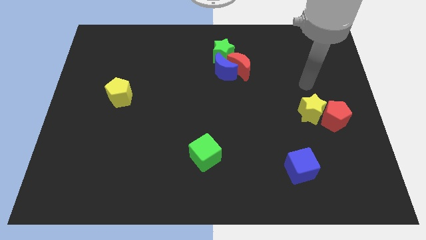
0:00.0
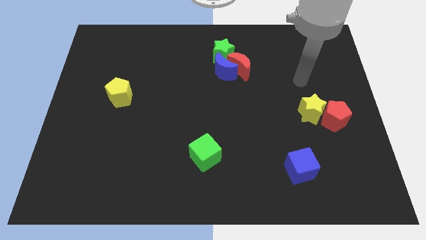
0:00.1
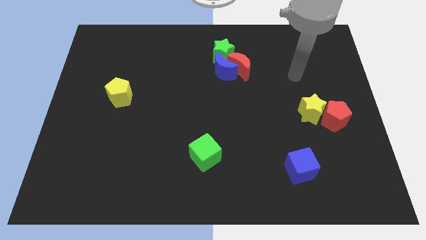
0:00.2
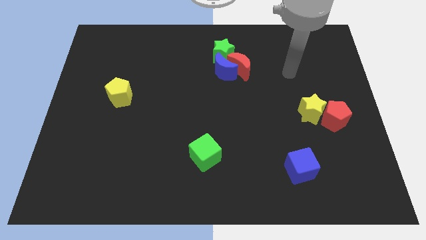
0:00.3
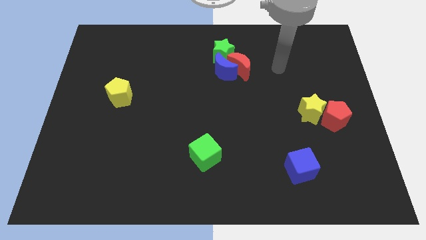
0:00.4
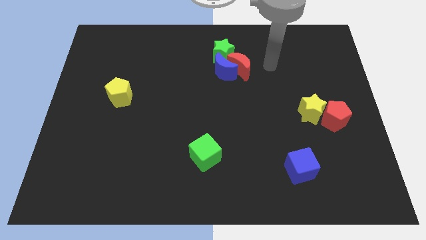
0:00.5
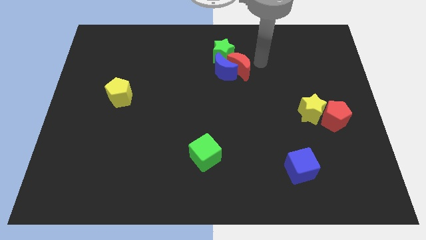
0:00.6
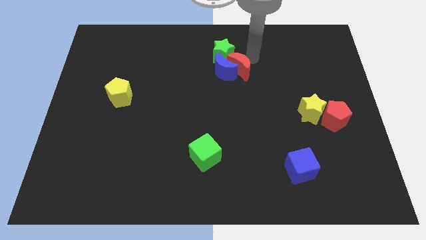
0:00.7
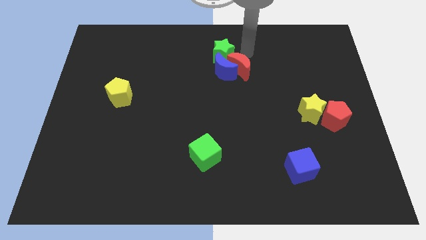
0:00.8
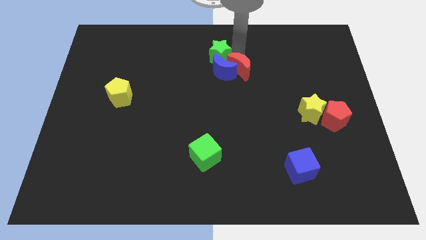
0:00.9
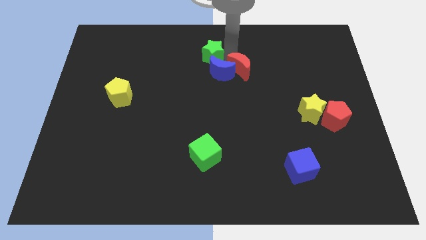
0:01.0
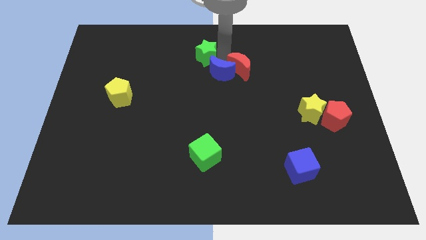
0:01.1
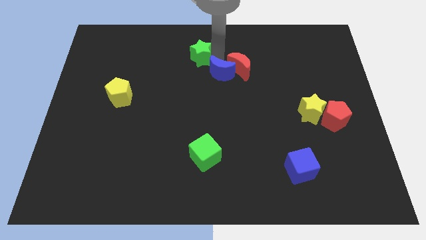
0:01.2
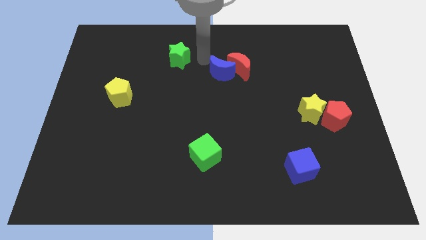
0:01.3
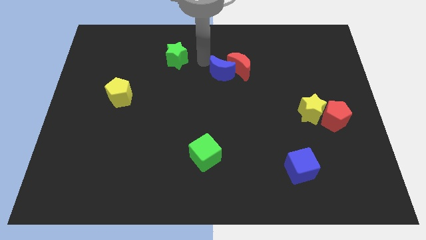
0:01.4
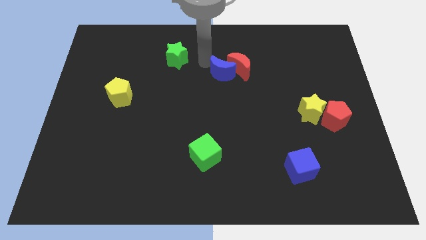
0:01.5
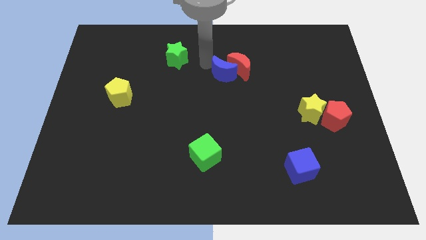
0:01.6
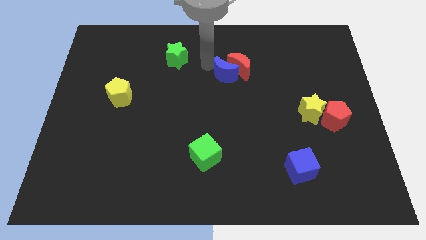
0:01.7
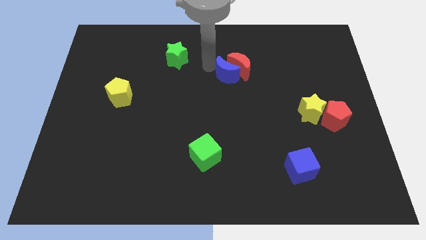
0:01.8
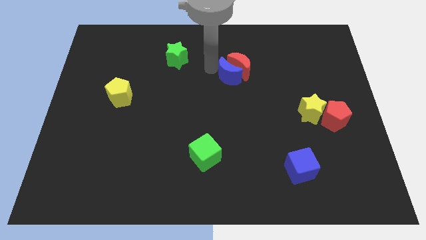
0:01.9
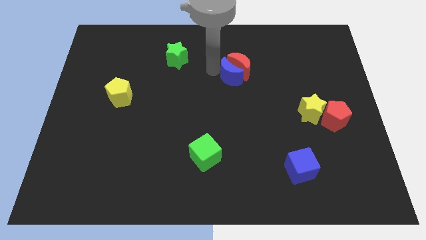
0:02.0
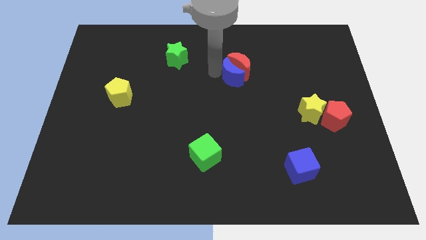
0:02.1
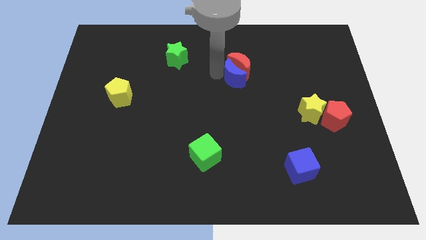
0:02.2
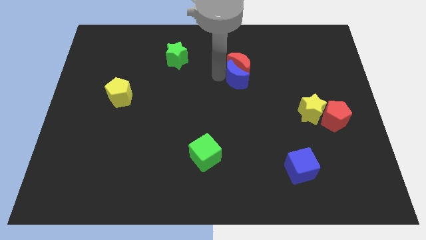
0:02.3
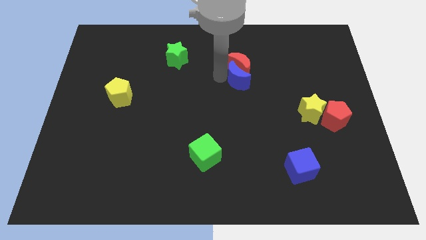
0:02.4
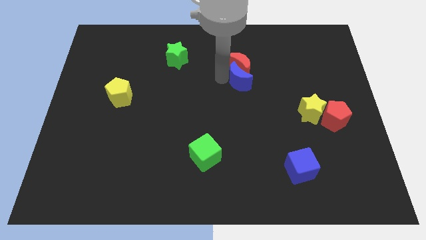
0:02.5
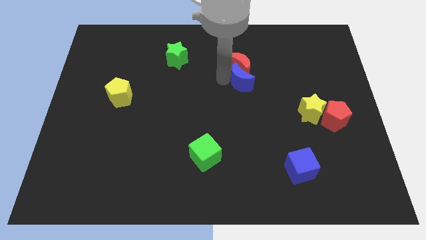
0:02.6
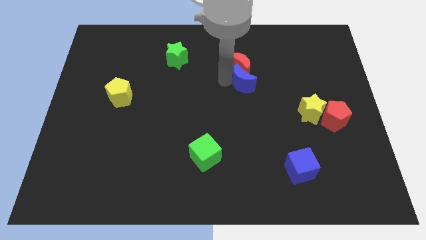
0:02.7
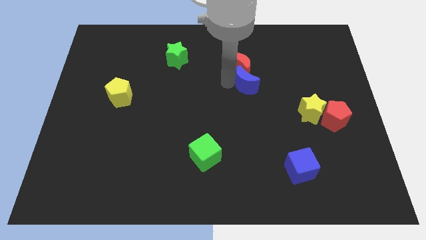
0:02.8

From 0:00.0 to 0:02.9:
slightly slide the blue moon diagonally downwards and right

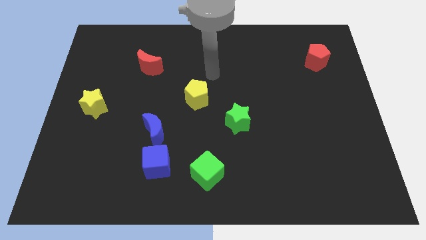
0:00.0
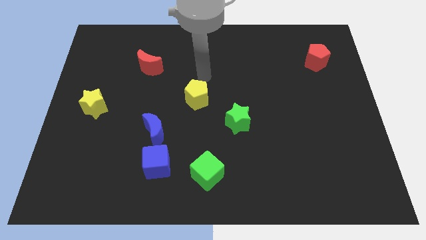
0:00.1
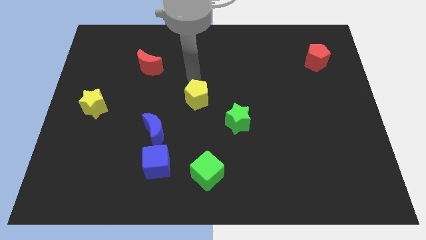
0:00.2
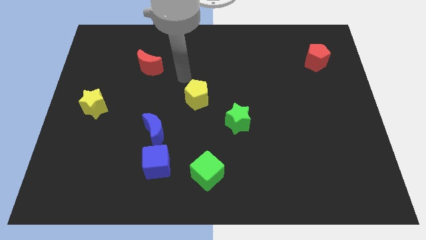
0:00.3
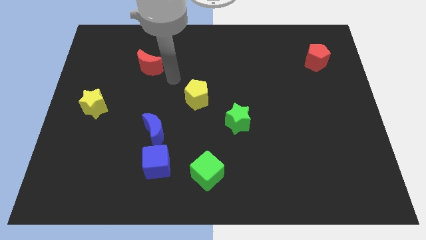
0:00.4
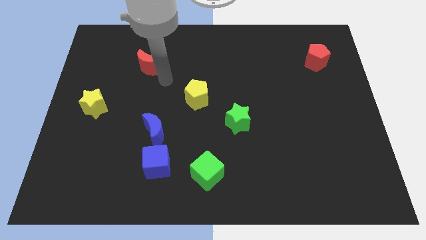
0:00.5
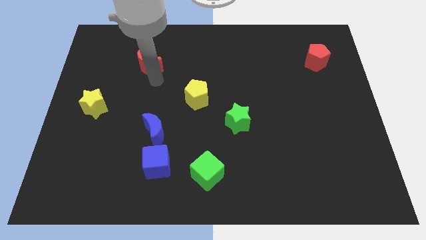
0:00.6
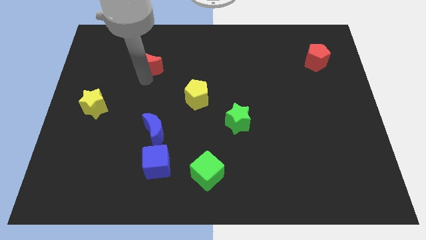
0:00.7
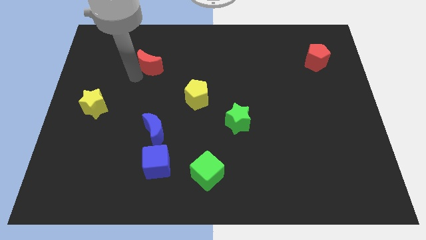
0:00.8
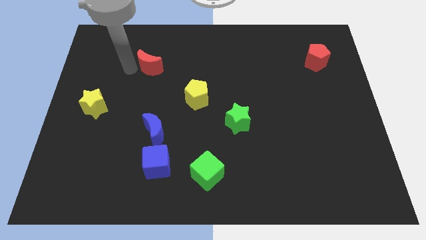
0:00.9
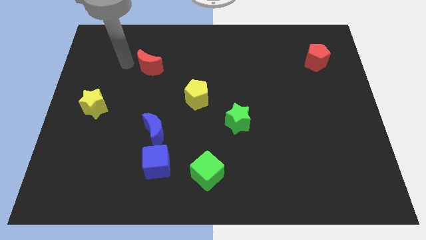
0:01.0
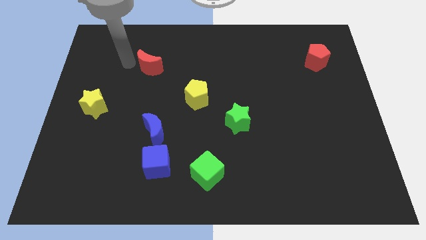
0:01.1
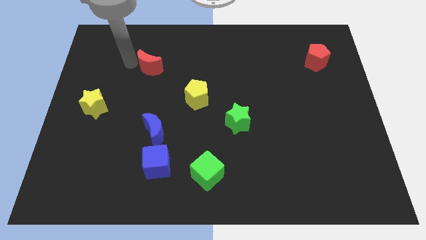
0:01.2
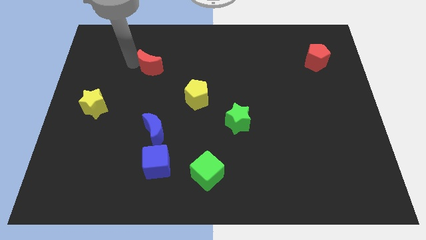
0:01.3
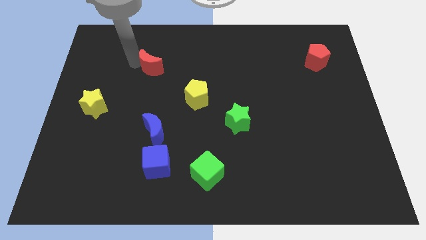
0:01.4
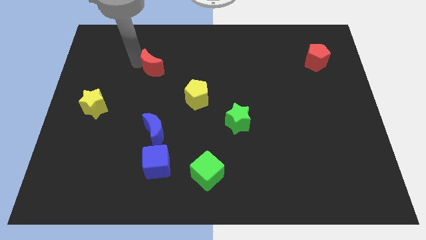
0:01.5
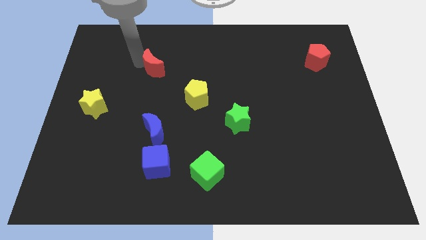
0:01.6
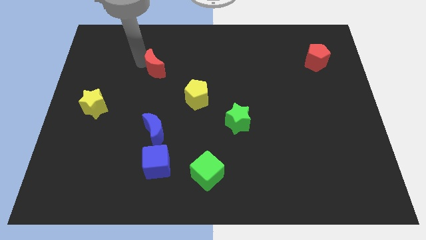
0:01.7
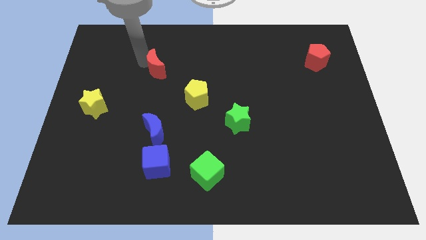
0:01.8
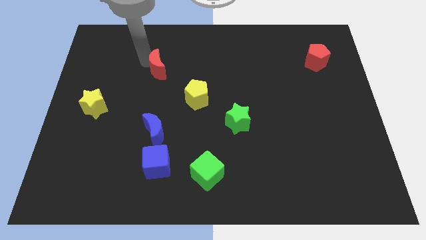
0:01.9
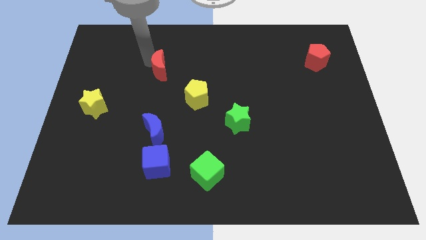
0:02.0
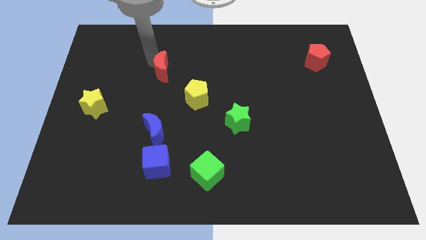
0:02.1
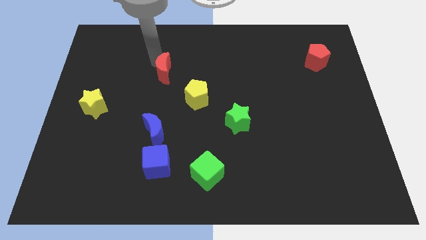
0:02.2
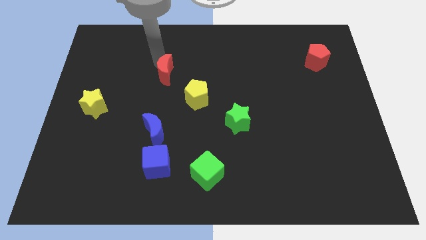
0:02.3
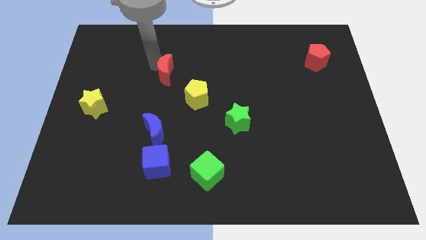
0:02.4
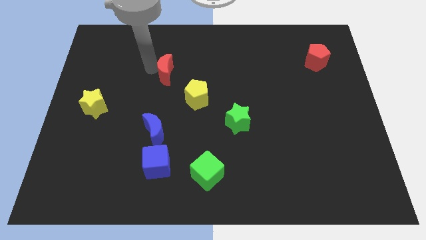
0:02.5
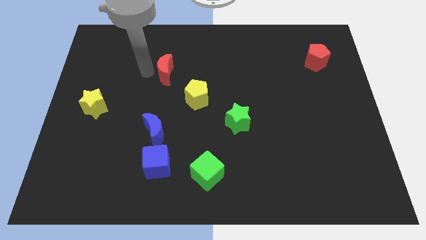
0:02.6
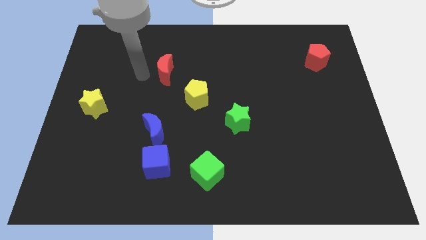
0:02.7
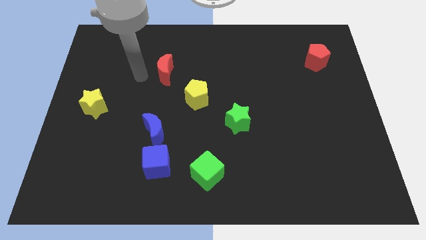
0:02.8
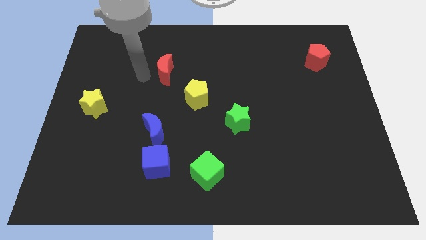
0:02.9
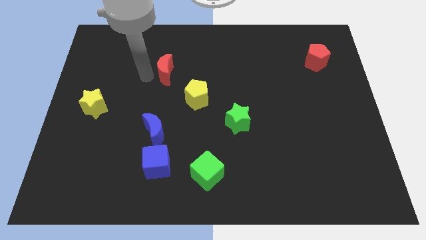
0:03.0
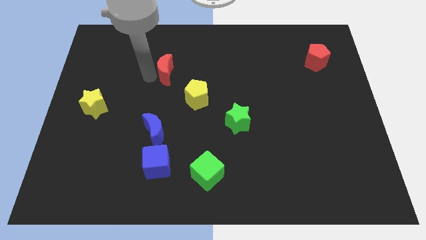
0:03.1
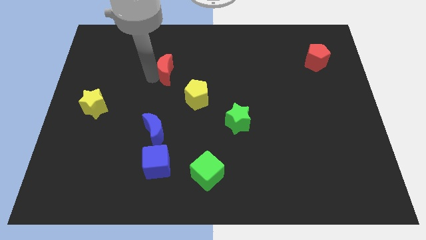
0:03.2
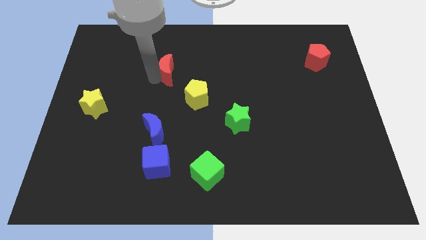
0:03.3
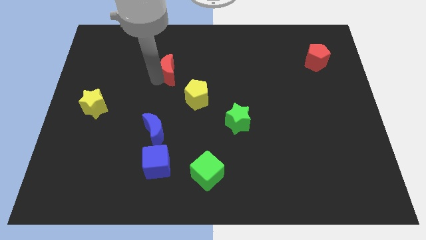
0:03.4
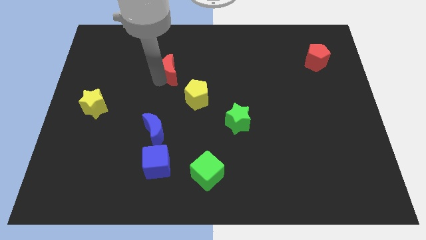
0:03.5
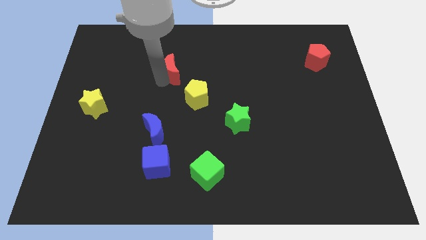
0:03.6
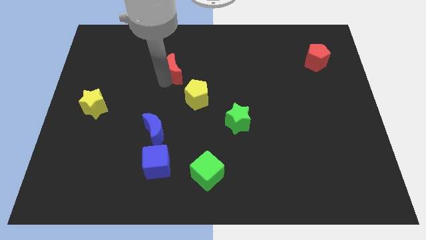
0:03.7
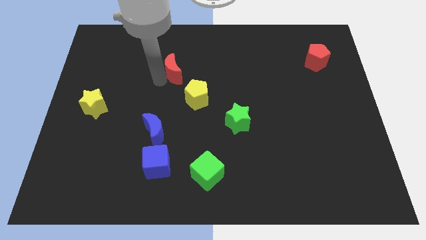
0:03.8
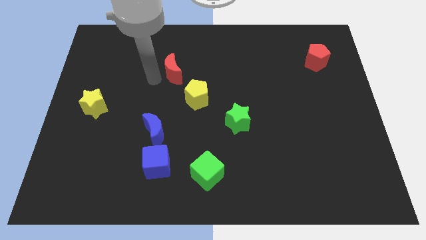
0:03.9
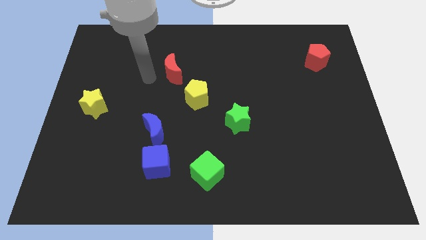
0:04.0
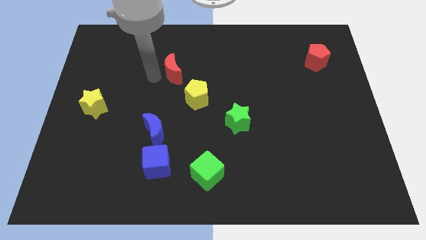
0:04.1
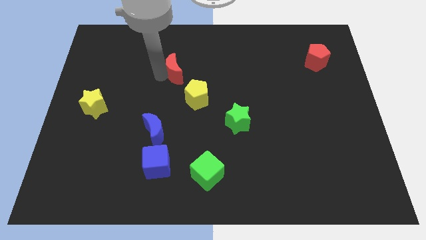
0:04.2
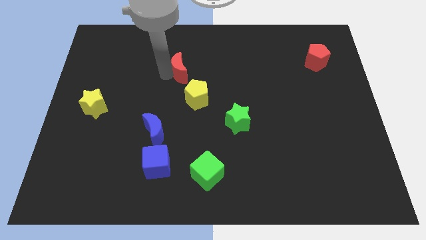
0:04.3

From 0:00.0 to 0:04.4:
push the red moon a little bit right

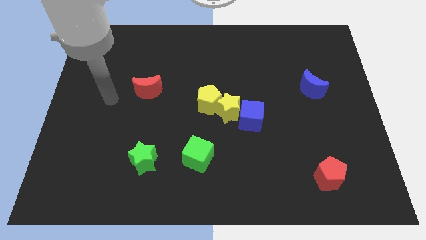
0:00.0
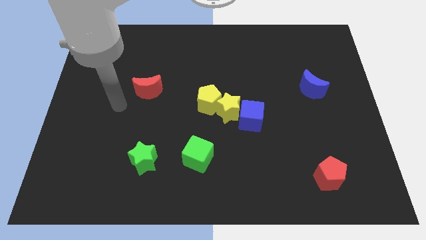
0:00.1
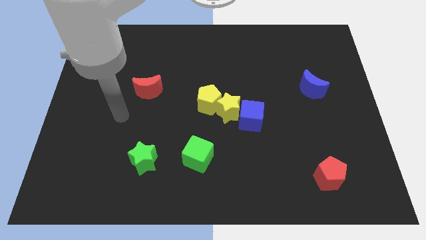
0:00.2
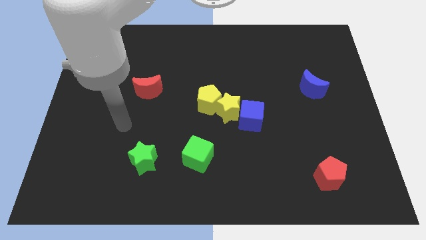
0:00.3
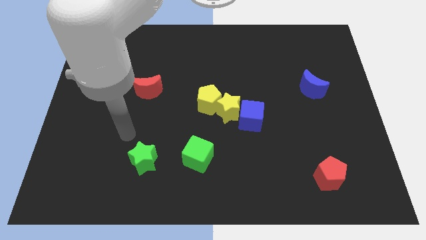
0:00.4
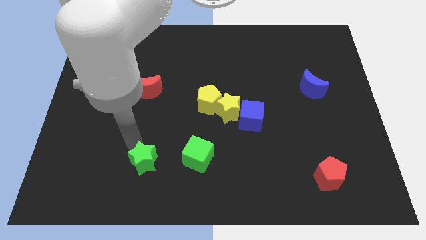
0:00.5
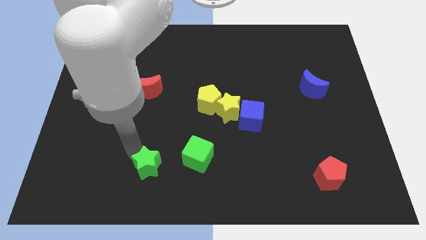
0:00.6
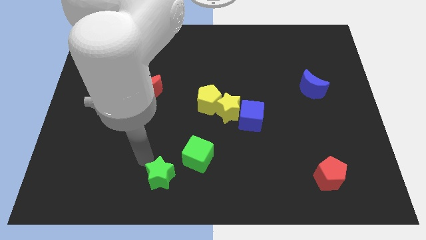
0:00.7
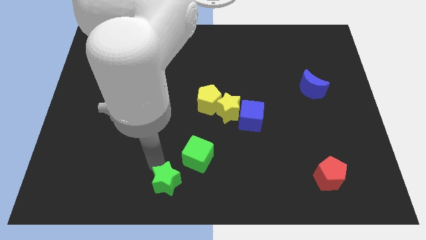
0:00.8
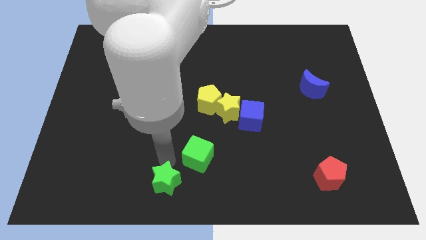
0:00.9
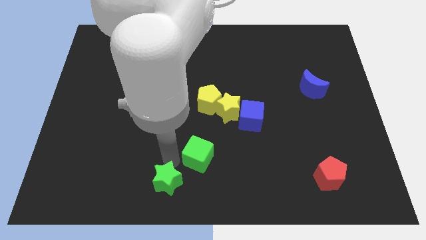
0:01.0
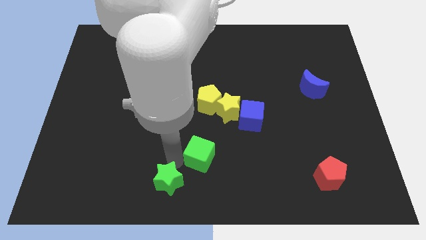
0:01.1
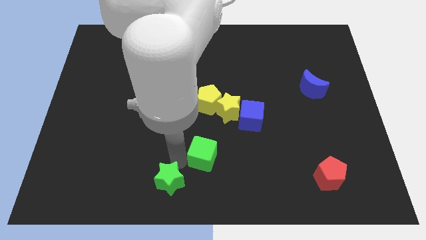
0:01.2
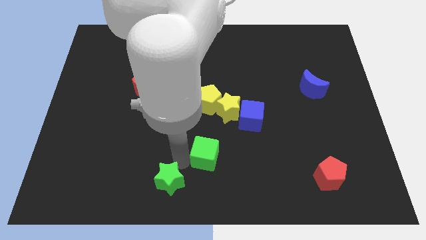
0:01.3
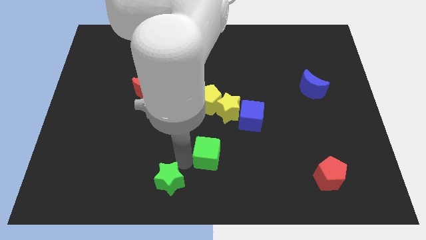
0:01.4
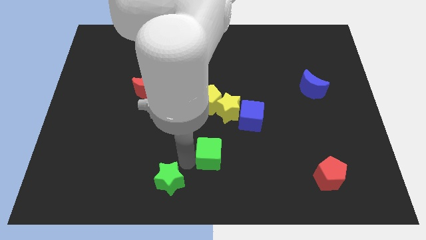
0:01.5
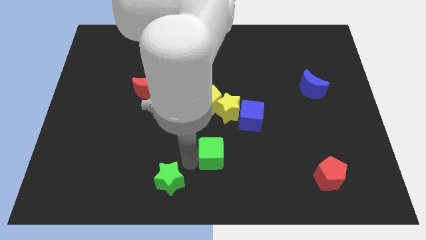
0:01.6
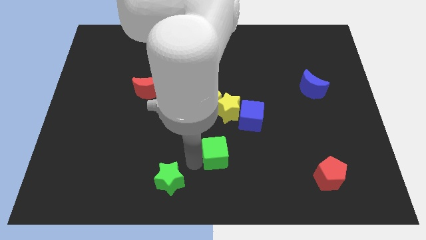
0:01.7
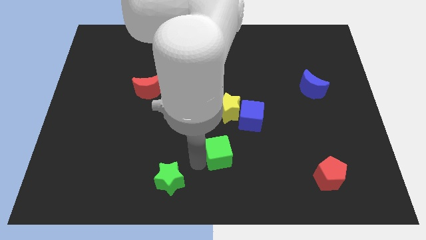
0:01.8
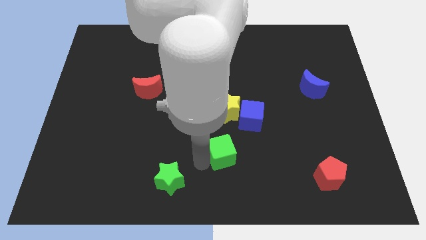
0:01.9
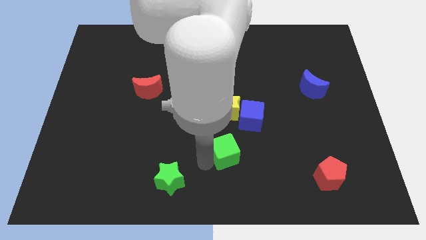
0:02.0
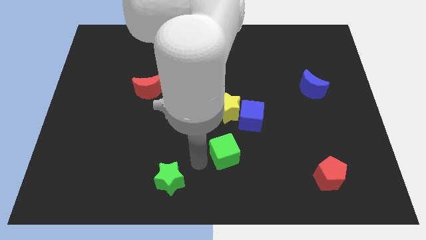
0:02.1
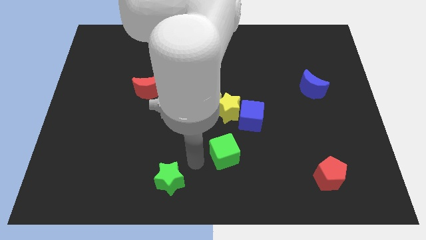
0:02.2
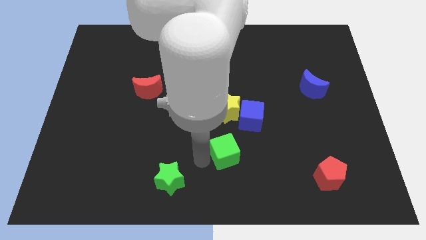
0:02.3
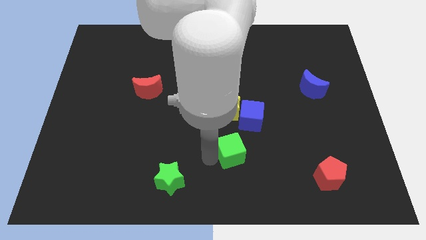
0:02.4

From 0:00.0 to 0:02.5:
move the green cube a little bit right
